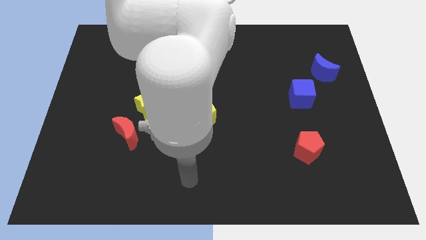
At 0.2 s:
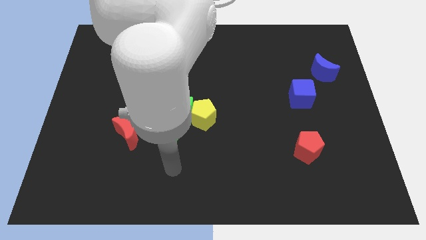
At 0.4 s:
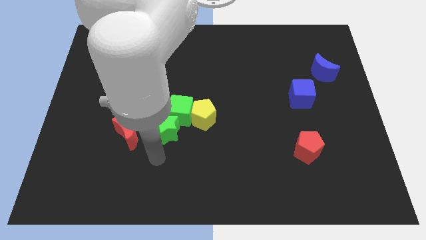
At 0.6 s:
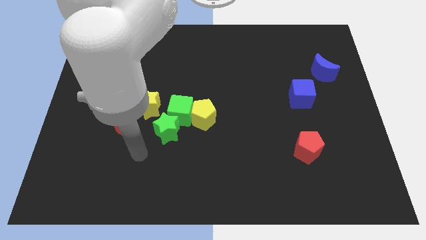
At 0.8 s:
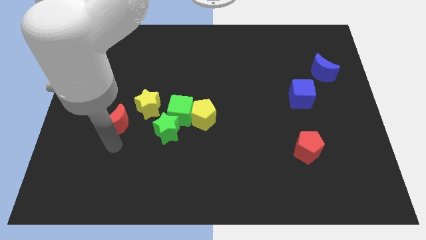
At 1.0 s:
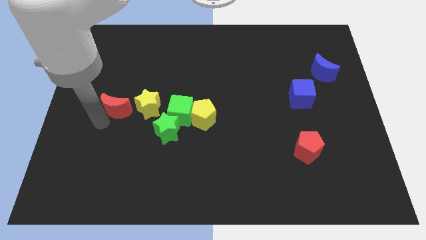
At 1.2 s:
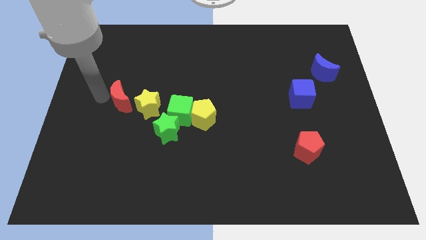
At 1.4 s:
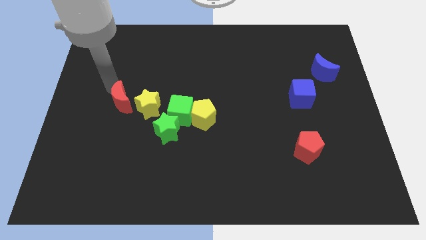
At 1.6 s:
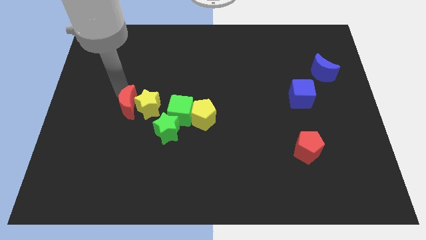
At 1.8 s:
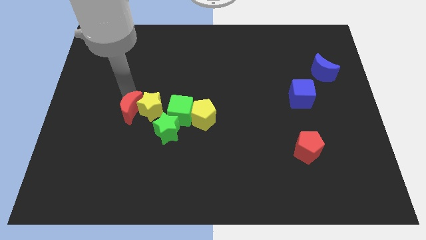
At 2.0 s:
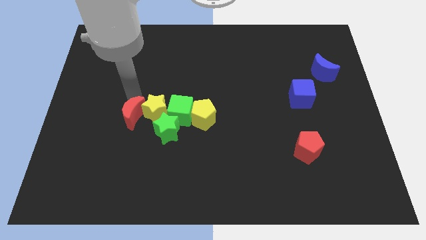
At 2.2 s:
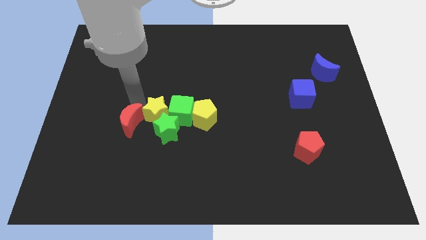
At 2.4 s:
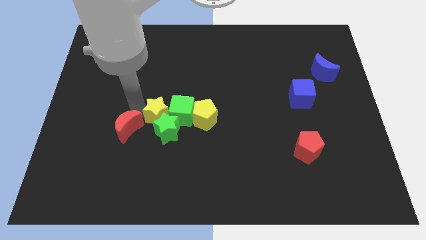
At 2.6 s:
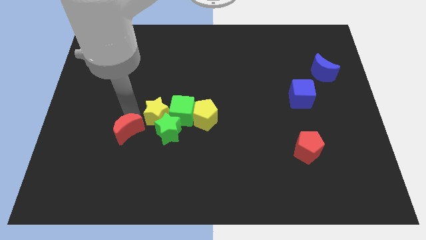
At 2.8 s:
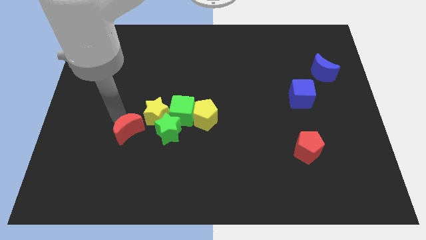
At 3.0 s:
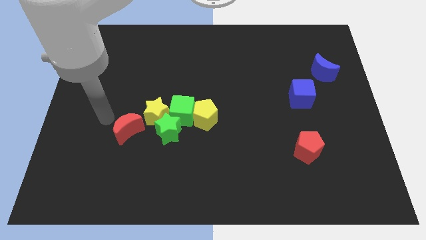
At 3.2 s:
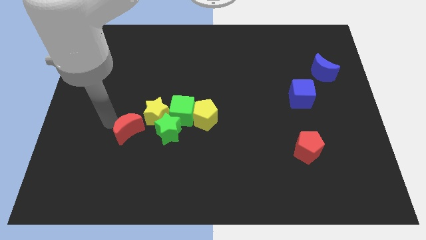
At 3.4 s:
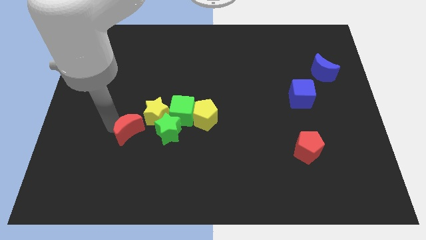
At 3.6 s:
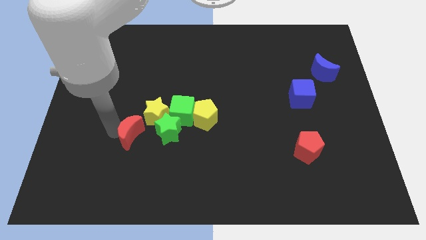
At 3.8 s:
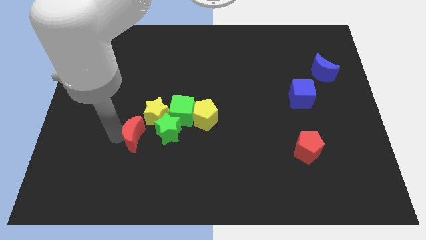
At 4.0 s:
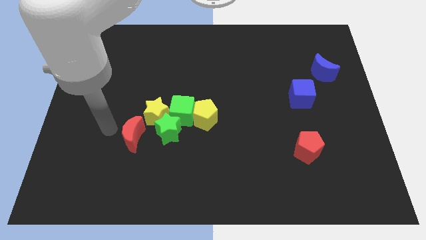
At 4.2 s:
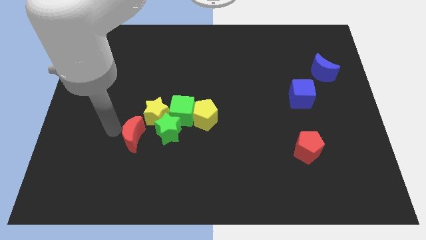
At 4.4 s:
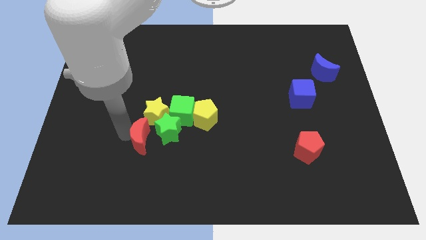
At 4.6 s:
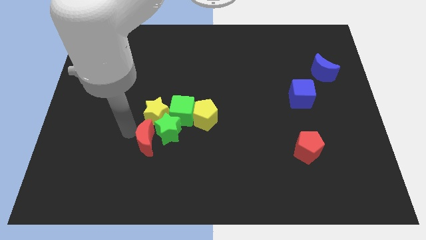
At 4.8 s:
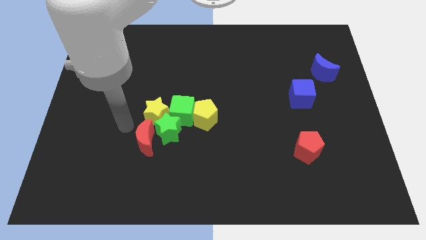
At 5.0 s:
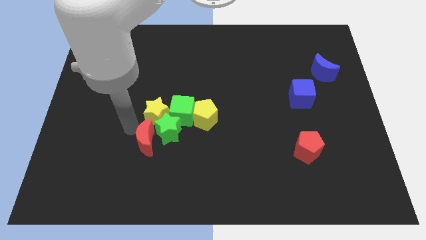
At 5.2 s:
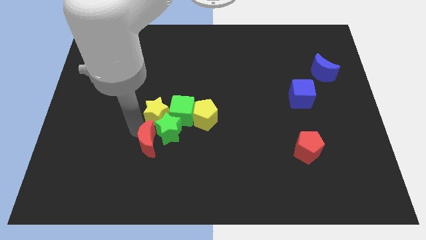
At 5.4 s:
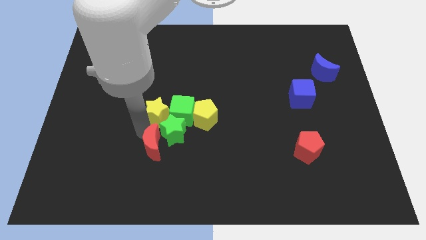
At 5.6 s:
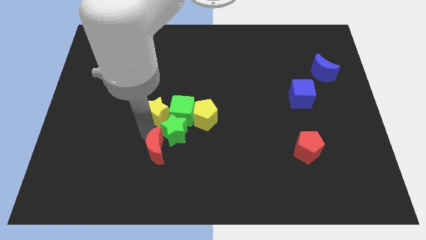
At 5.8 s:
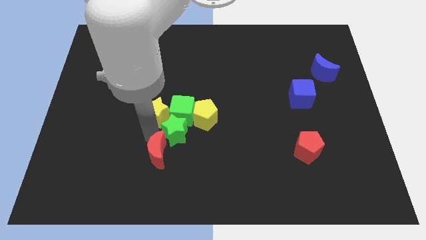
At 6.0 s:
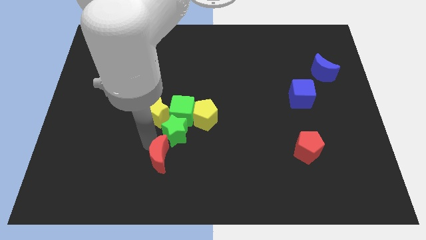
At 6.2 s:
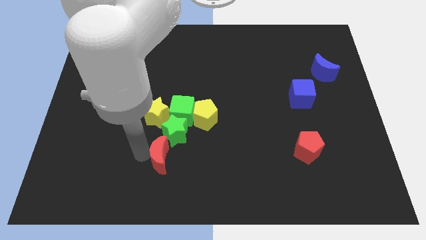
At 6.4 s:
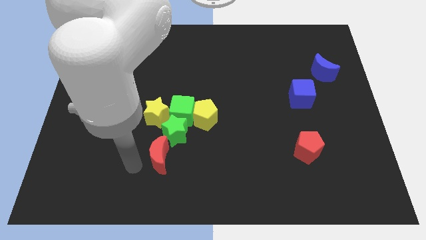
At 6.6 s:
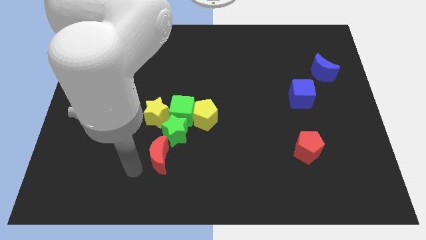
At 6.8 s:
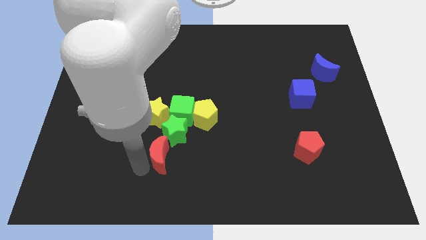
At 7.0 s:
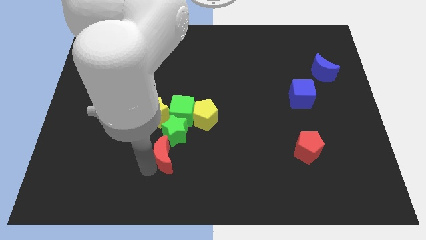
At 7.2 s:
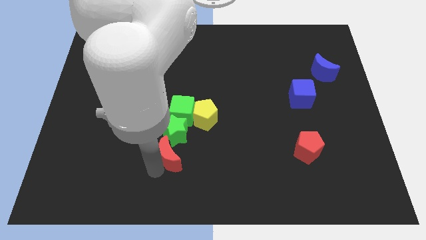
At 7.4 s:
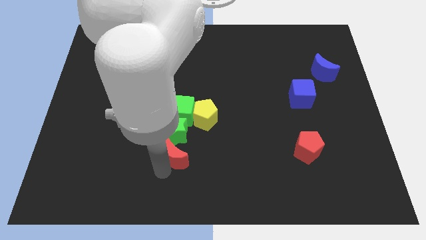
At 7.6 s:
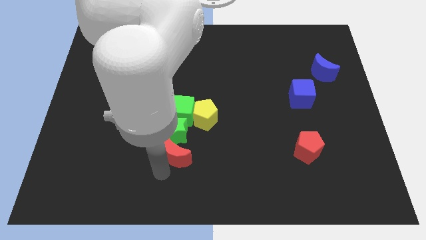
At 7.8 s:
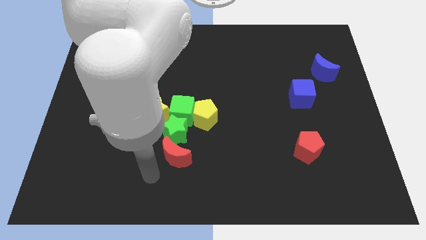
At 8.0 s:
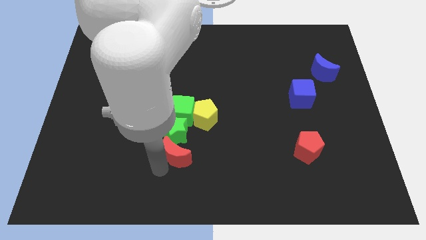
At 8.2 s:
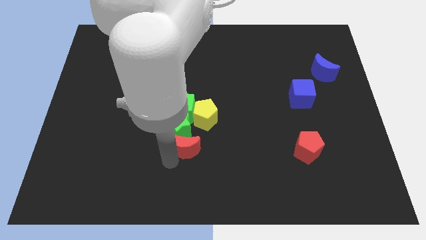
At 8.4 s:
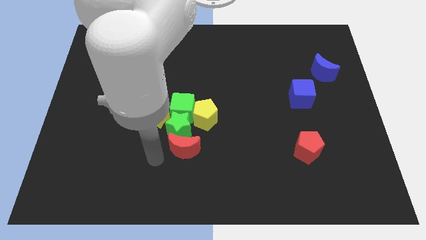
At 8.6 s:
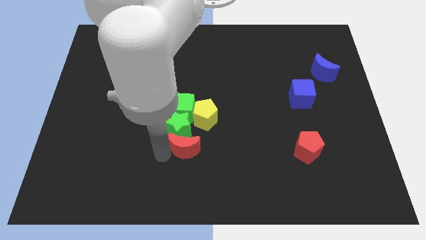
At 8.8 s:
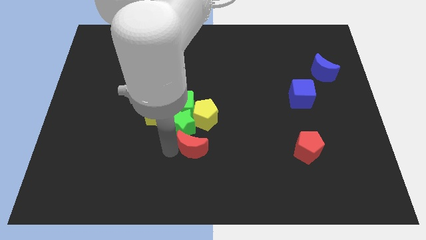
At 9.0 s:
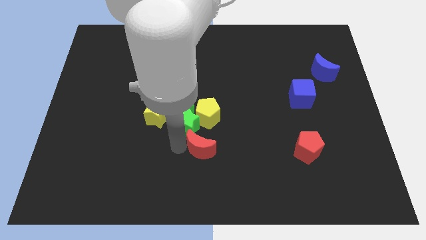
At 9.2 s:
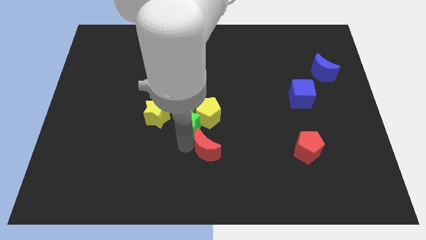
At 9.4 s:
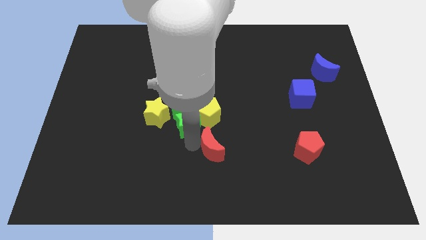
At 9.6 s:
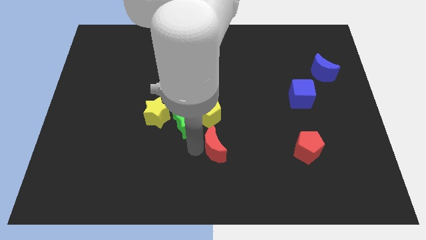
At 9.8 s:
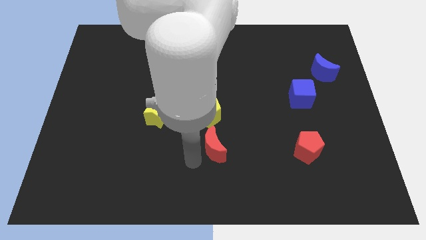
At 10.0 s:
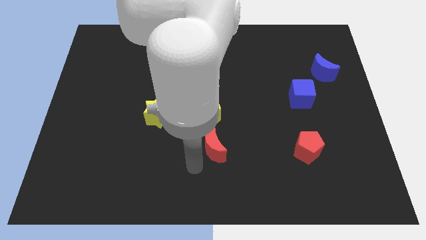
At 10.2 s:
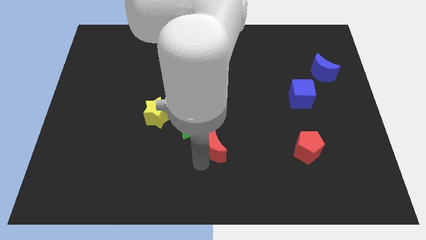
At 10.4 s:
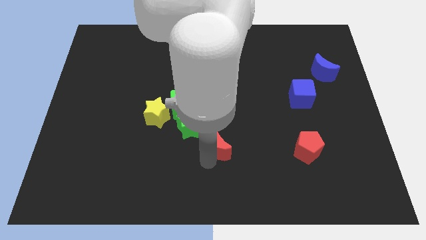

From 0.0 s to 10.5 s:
move the red moon diagonally down and to the right of the yellow pentagon

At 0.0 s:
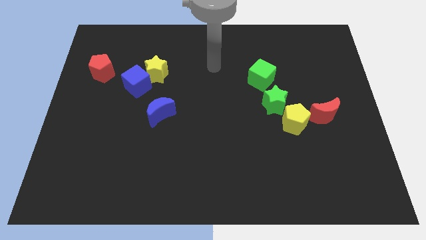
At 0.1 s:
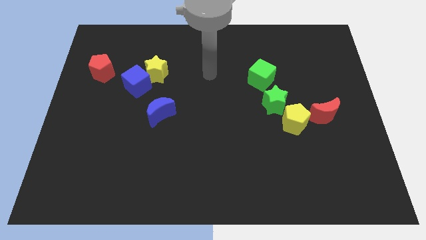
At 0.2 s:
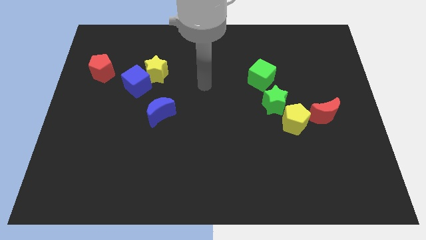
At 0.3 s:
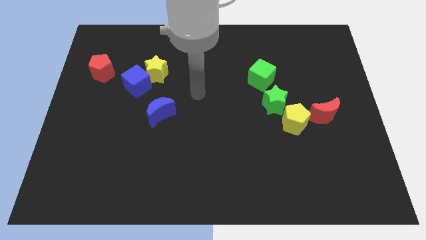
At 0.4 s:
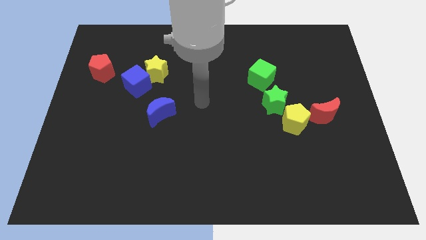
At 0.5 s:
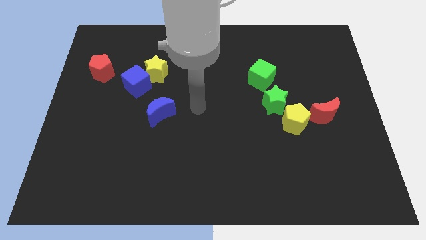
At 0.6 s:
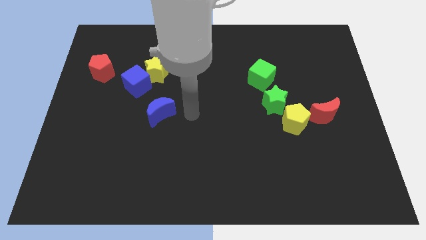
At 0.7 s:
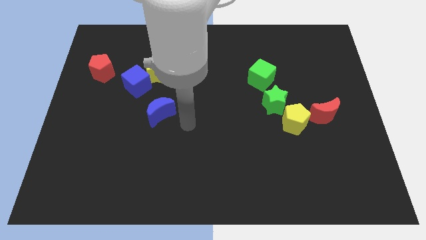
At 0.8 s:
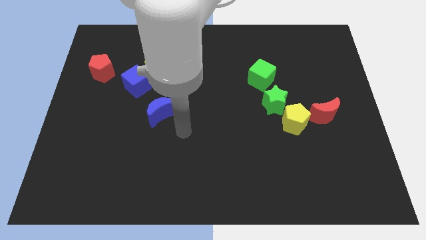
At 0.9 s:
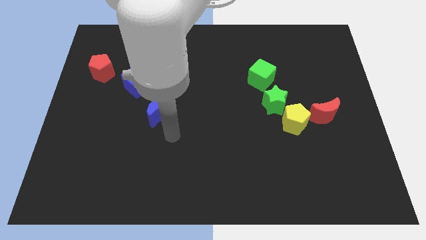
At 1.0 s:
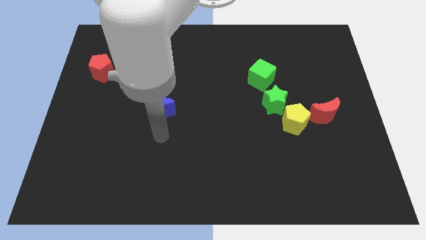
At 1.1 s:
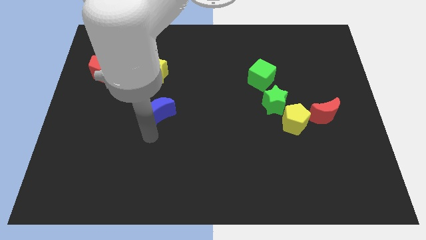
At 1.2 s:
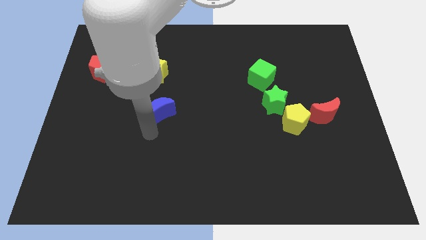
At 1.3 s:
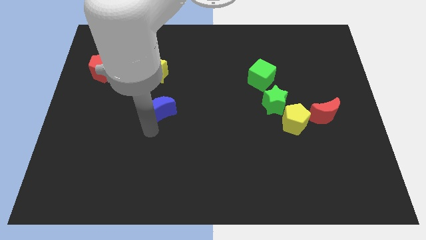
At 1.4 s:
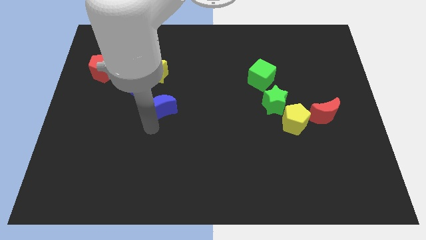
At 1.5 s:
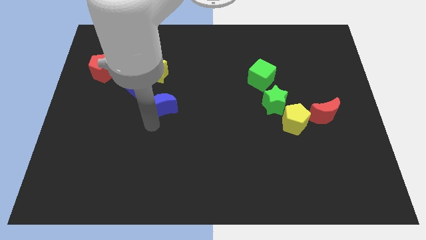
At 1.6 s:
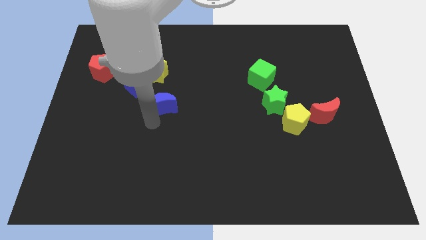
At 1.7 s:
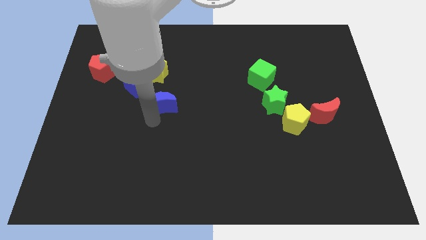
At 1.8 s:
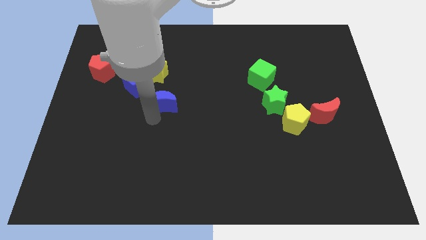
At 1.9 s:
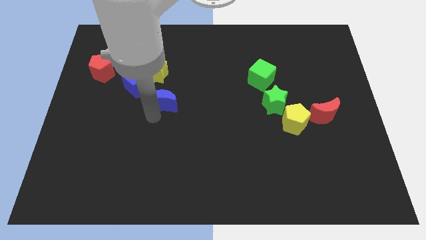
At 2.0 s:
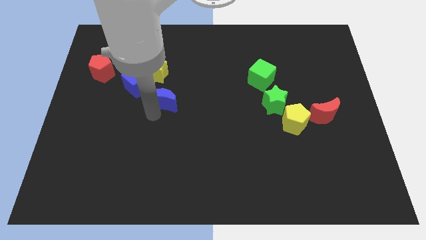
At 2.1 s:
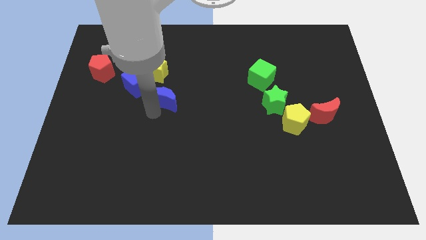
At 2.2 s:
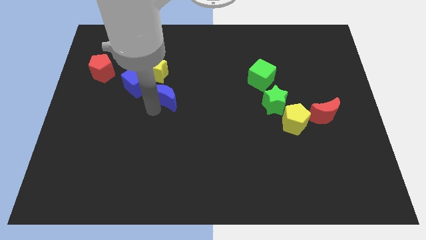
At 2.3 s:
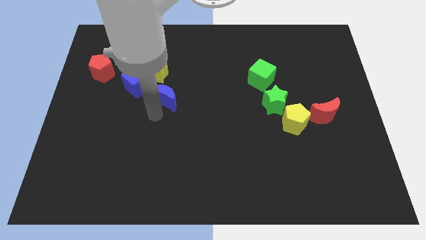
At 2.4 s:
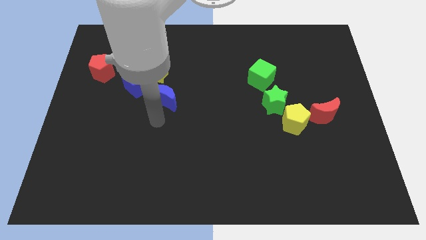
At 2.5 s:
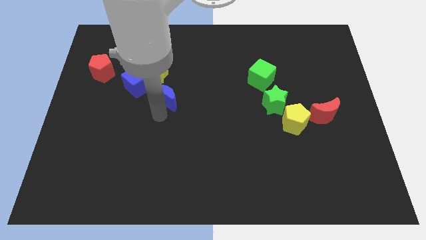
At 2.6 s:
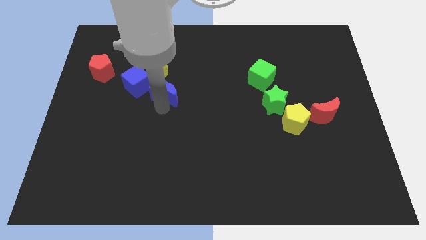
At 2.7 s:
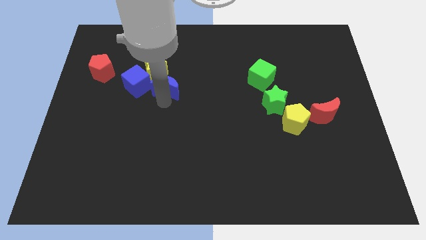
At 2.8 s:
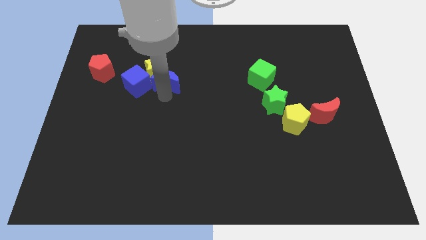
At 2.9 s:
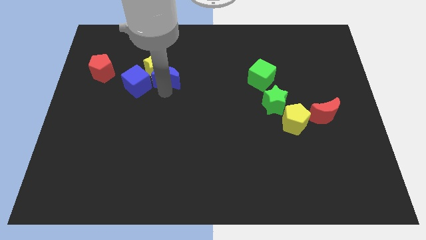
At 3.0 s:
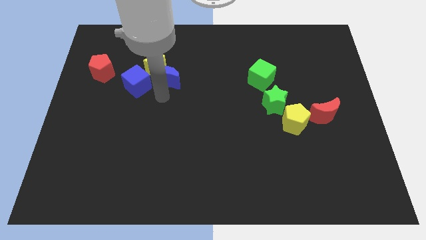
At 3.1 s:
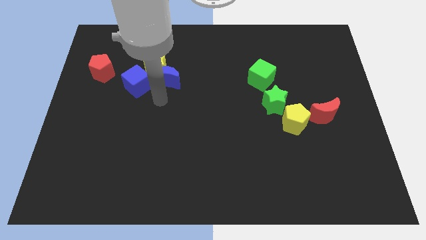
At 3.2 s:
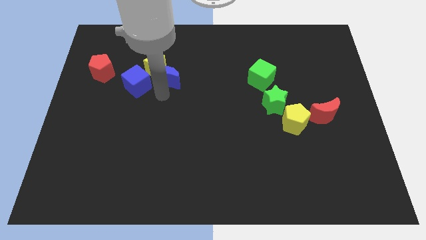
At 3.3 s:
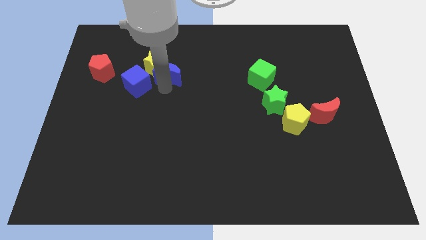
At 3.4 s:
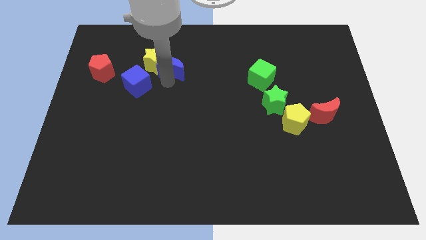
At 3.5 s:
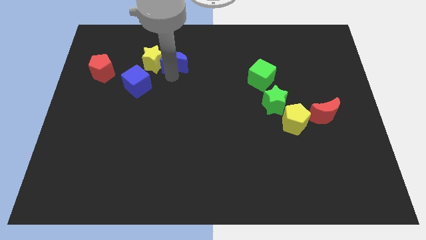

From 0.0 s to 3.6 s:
move the blue moon diagonally up and to the right of the yellow star
